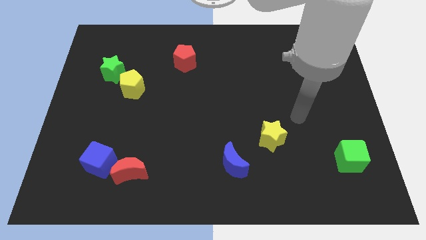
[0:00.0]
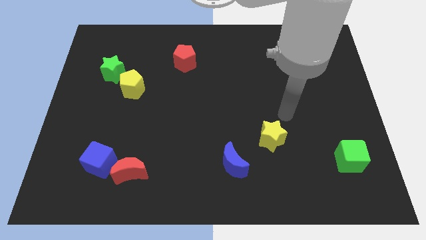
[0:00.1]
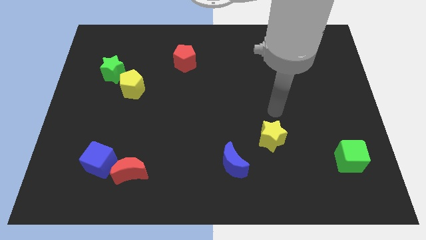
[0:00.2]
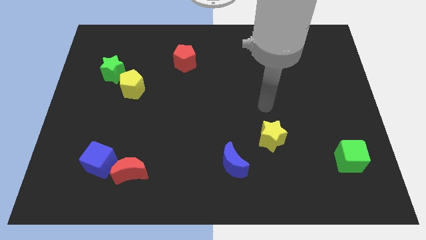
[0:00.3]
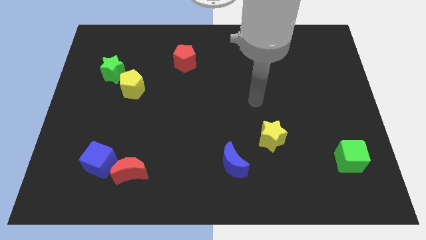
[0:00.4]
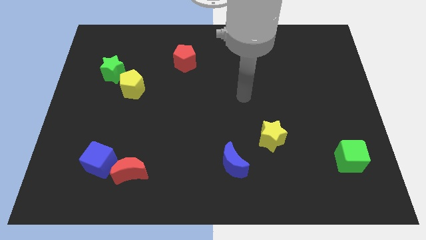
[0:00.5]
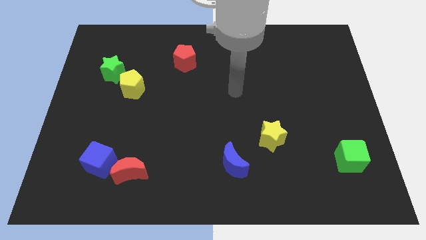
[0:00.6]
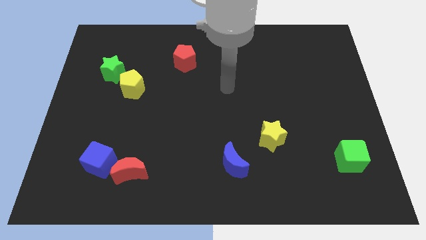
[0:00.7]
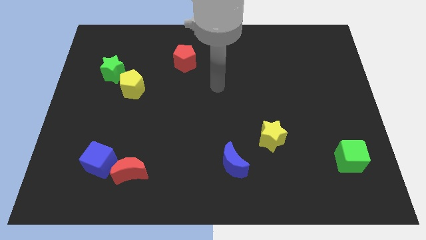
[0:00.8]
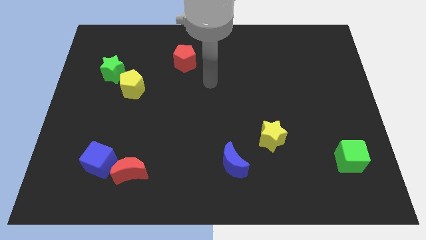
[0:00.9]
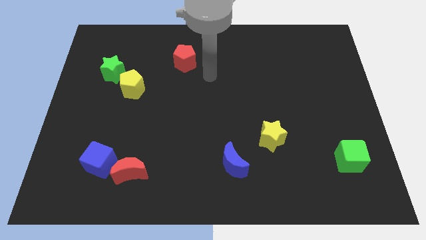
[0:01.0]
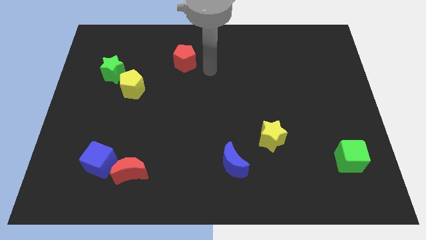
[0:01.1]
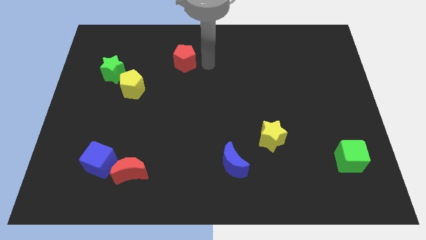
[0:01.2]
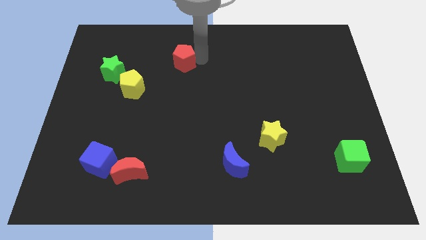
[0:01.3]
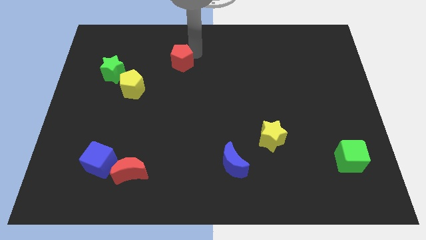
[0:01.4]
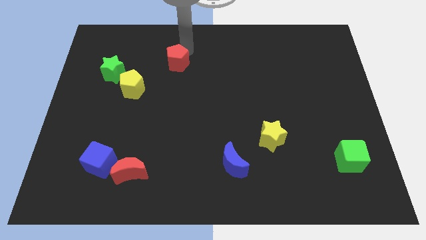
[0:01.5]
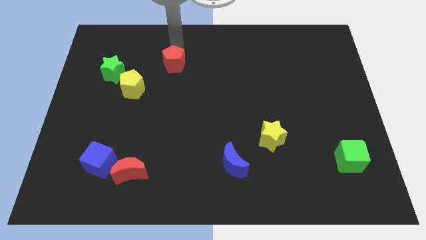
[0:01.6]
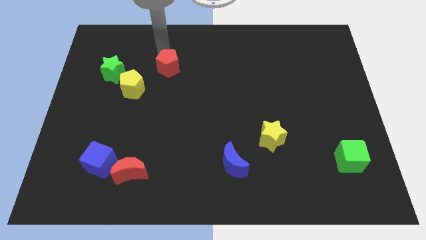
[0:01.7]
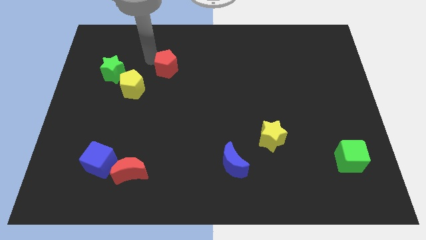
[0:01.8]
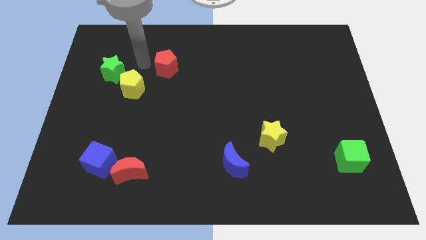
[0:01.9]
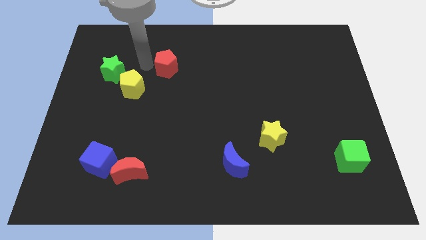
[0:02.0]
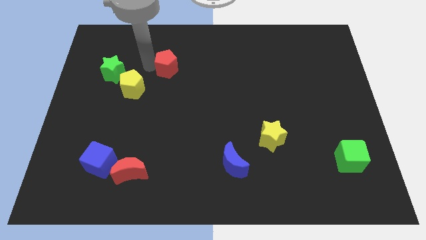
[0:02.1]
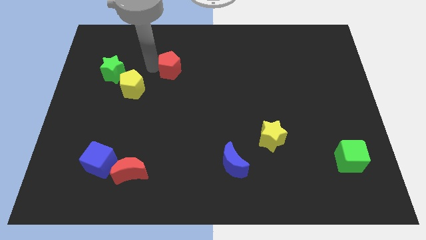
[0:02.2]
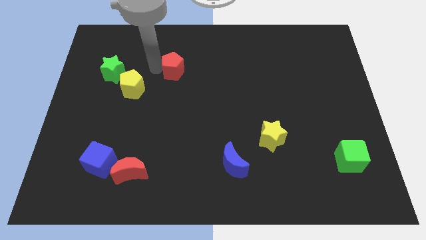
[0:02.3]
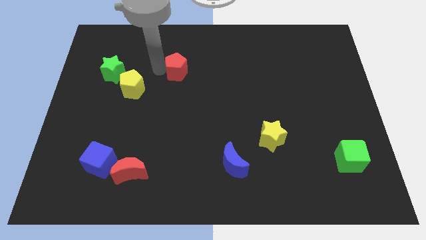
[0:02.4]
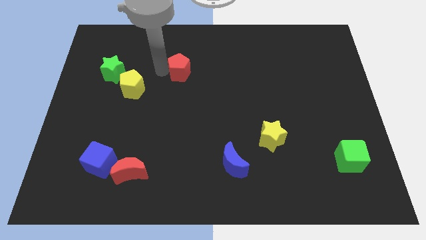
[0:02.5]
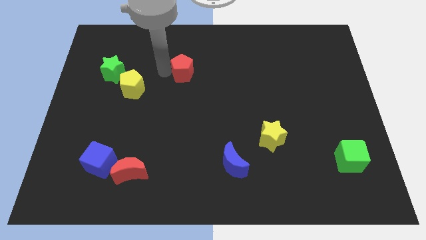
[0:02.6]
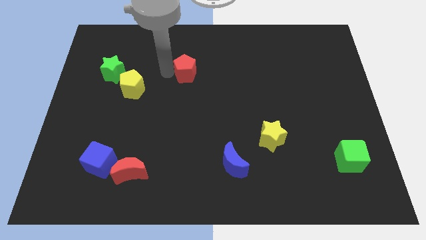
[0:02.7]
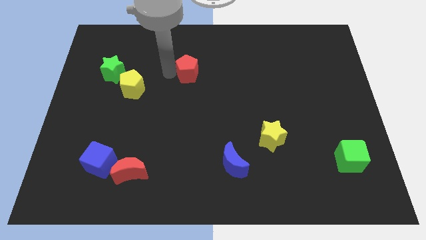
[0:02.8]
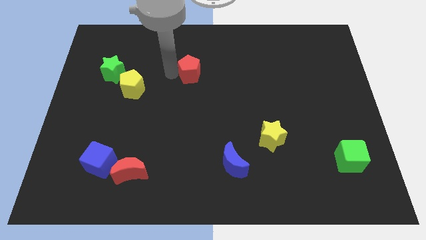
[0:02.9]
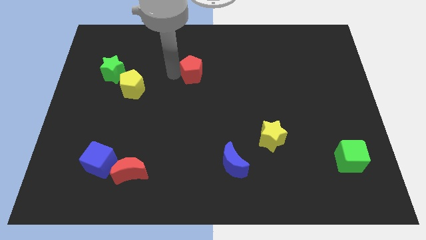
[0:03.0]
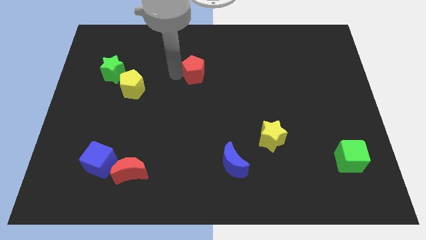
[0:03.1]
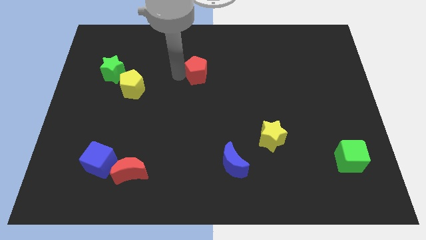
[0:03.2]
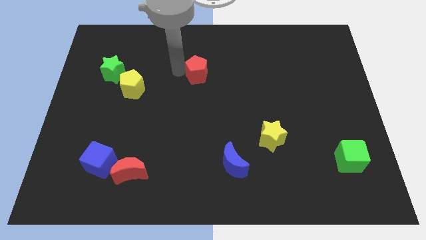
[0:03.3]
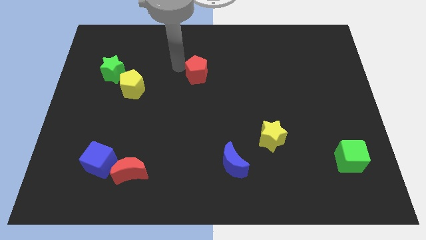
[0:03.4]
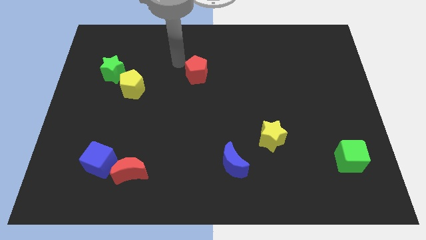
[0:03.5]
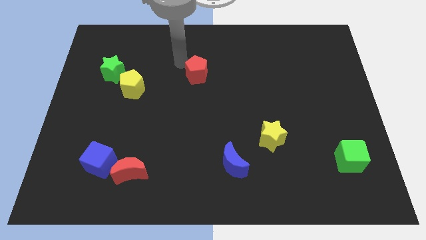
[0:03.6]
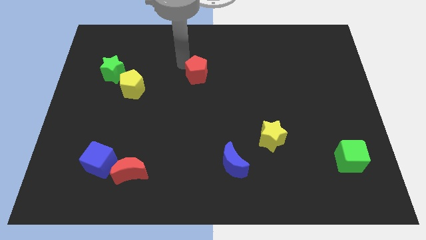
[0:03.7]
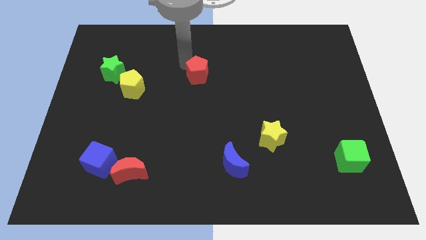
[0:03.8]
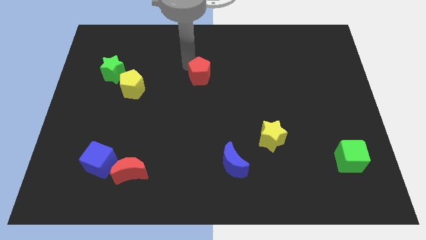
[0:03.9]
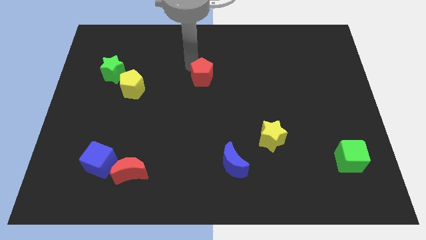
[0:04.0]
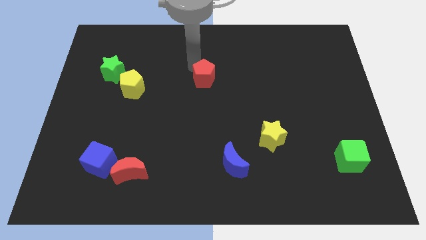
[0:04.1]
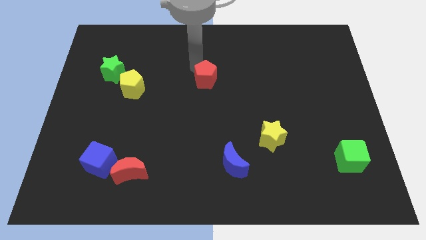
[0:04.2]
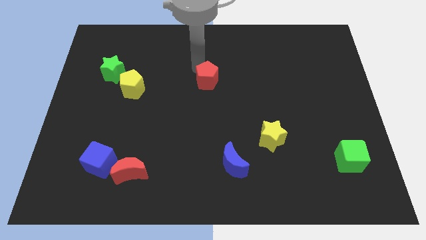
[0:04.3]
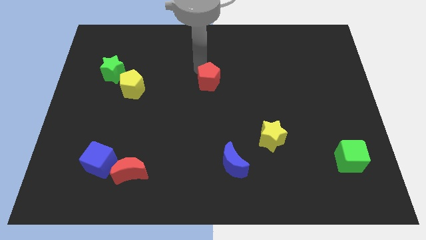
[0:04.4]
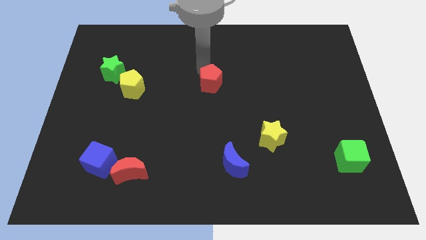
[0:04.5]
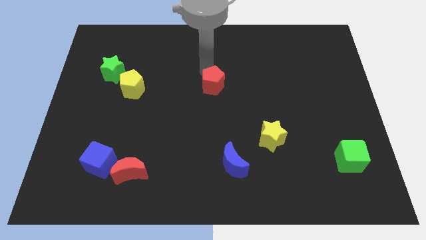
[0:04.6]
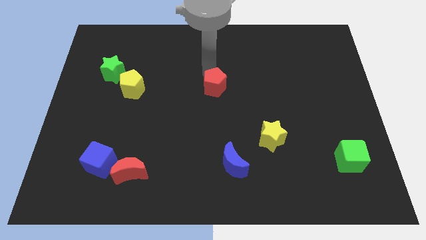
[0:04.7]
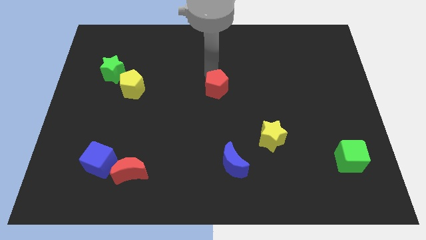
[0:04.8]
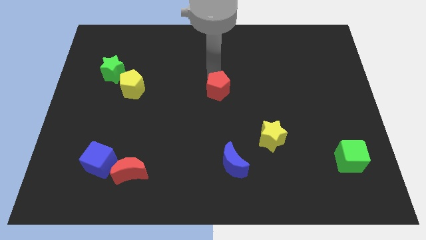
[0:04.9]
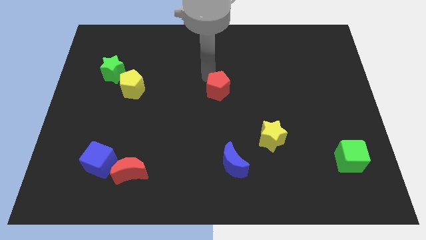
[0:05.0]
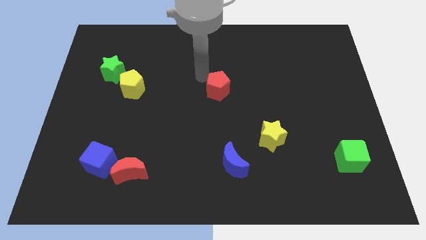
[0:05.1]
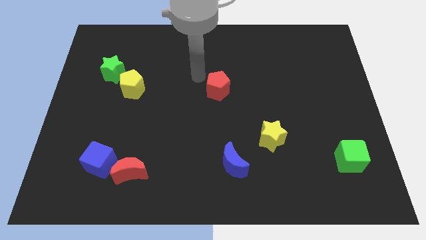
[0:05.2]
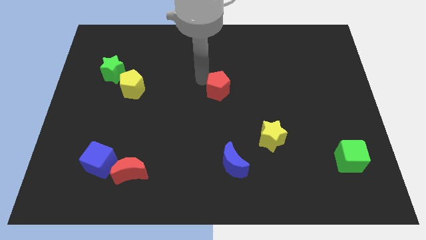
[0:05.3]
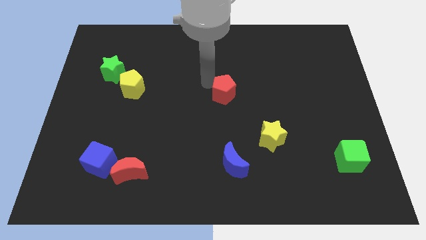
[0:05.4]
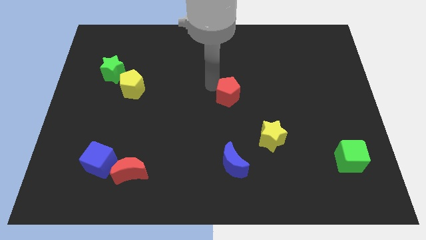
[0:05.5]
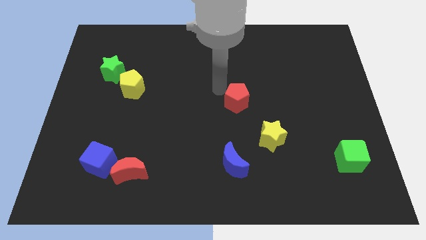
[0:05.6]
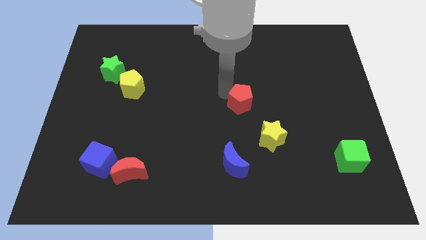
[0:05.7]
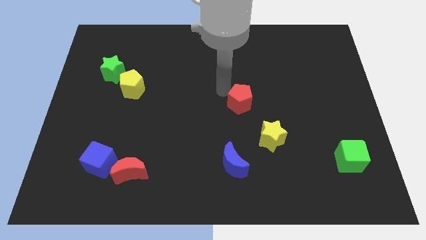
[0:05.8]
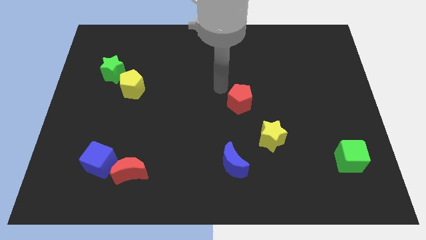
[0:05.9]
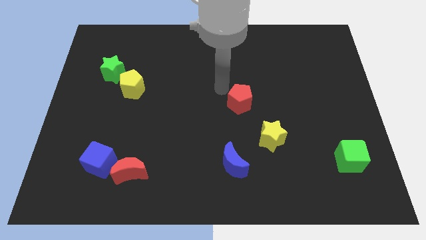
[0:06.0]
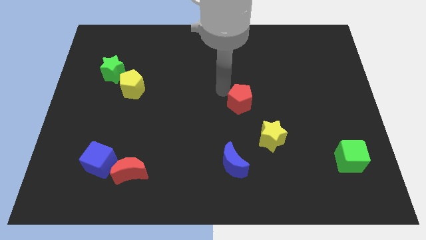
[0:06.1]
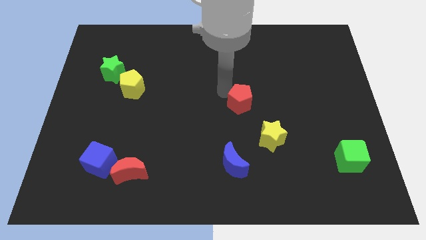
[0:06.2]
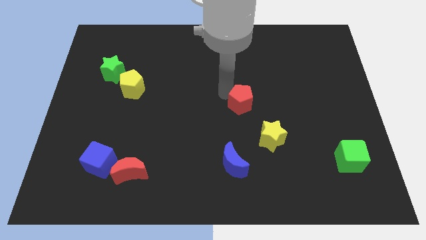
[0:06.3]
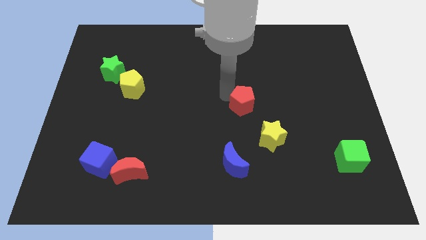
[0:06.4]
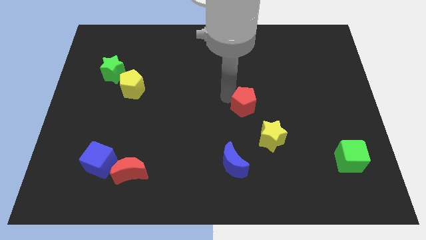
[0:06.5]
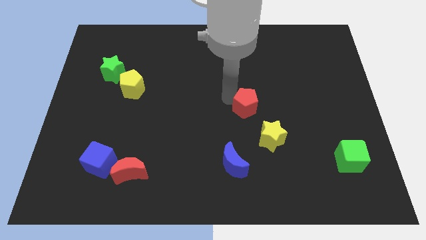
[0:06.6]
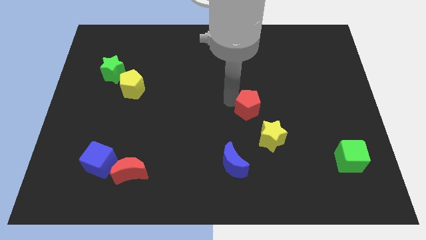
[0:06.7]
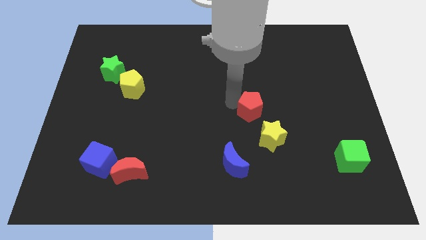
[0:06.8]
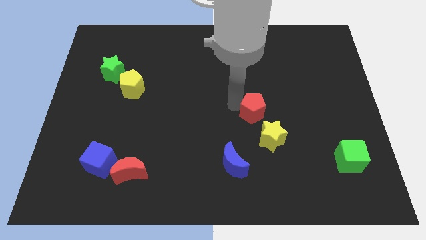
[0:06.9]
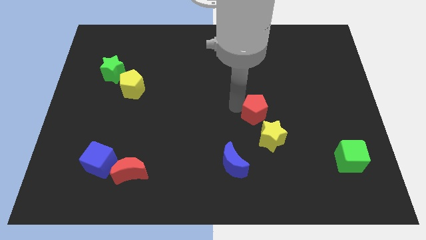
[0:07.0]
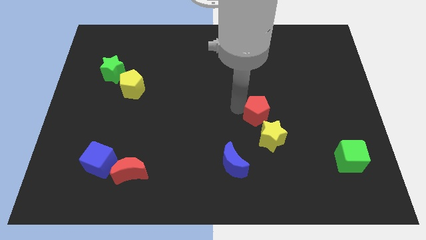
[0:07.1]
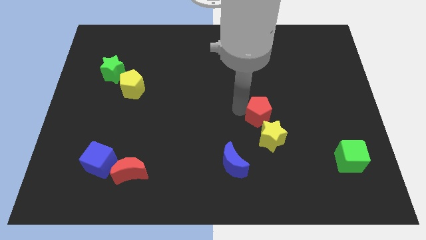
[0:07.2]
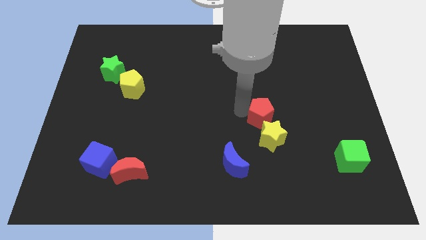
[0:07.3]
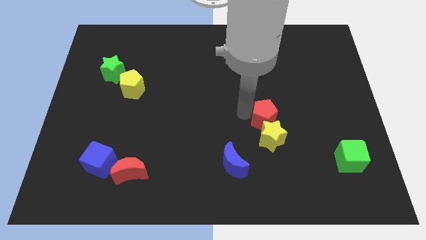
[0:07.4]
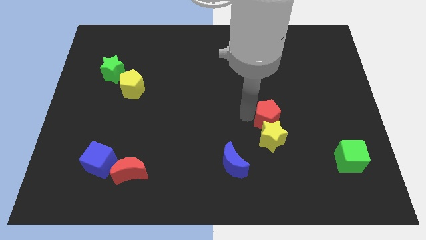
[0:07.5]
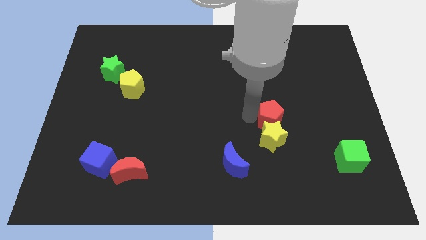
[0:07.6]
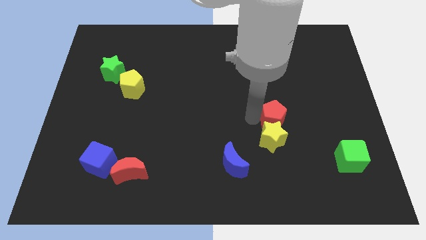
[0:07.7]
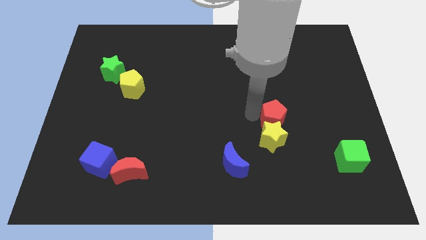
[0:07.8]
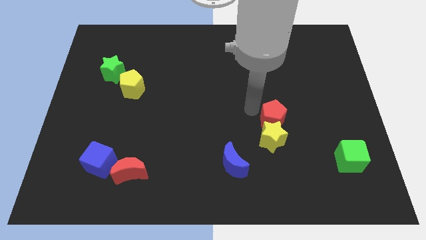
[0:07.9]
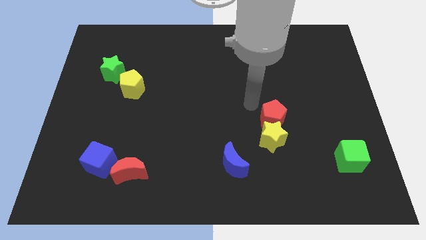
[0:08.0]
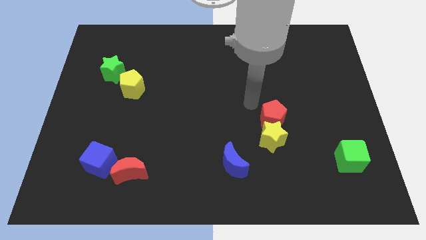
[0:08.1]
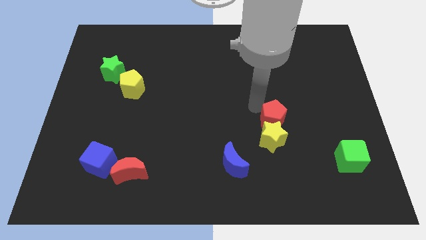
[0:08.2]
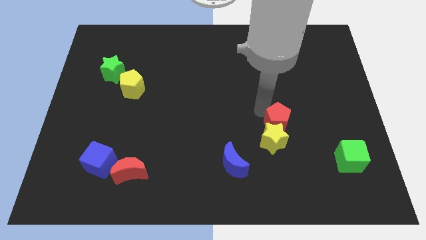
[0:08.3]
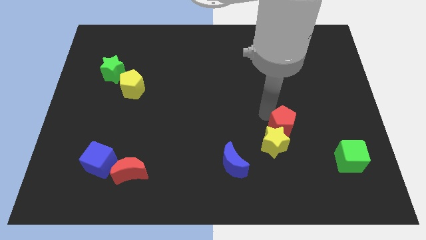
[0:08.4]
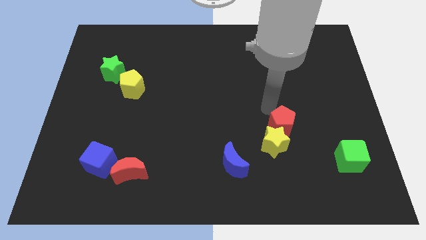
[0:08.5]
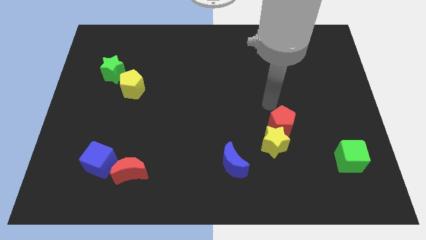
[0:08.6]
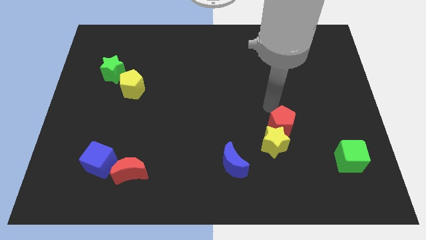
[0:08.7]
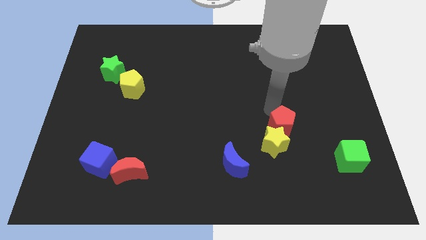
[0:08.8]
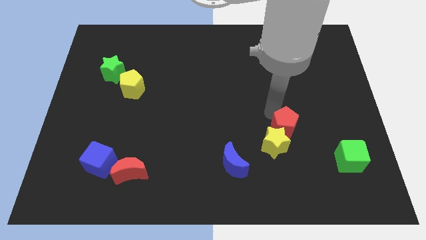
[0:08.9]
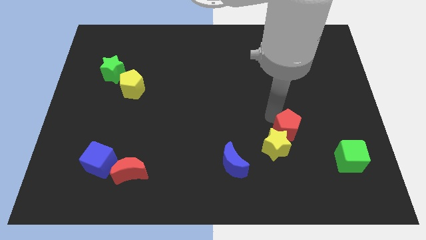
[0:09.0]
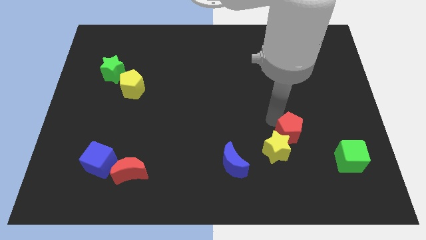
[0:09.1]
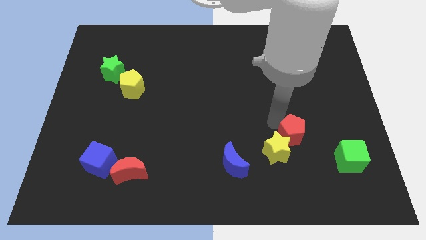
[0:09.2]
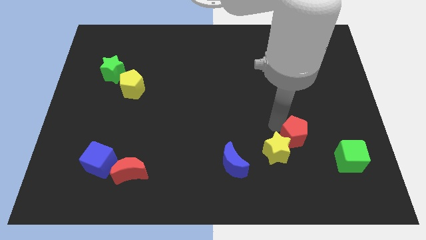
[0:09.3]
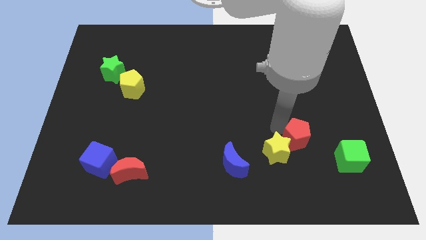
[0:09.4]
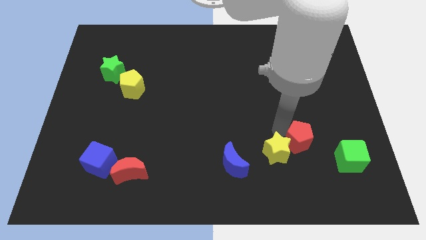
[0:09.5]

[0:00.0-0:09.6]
push the red pentagon left of the green cube
